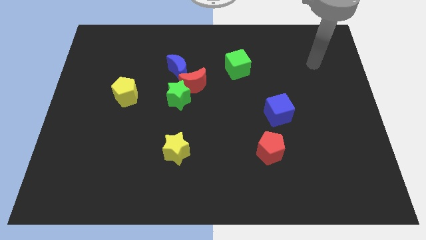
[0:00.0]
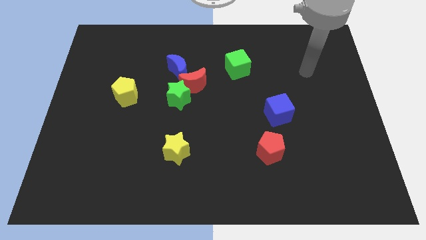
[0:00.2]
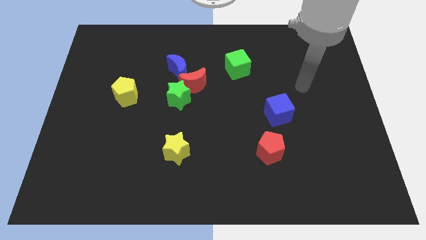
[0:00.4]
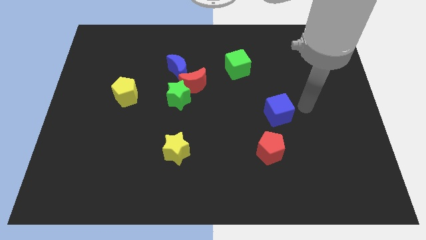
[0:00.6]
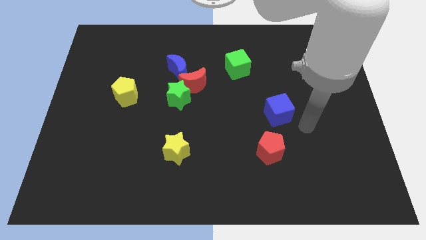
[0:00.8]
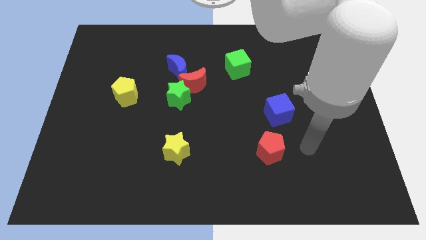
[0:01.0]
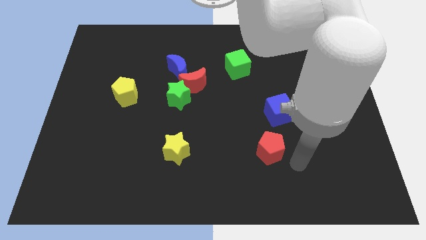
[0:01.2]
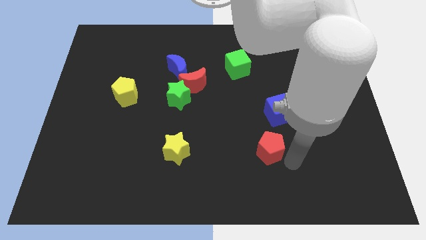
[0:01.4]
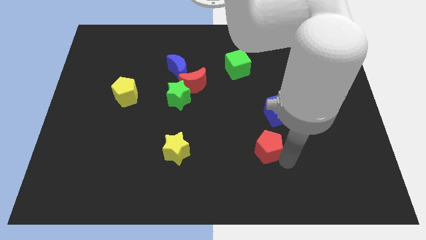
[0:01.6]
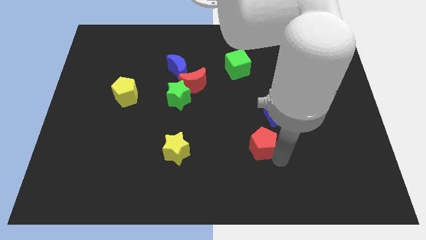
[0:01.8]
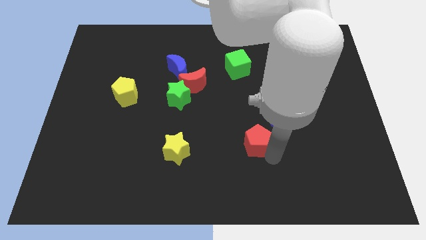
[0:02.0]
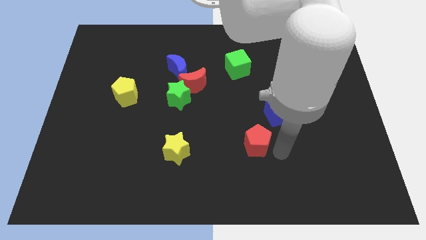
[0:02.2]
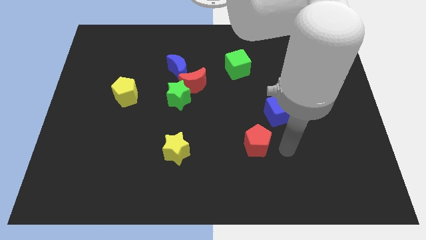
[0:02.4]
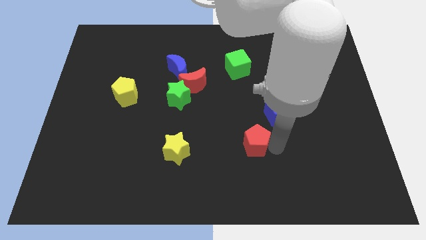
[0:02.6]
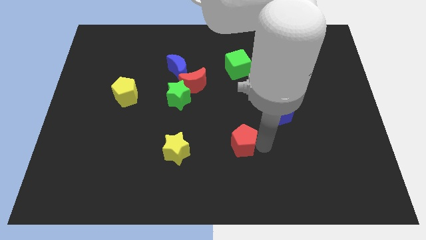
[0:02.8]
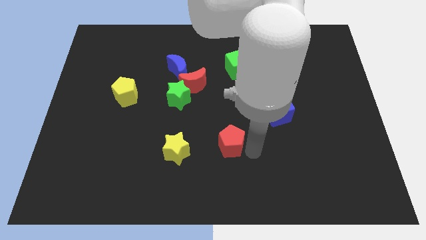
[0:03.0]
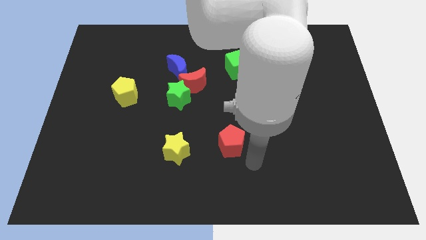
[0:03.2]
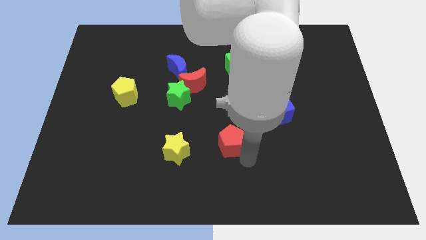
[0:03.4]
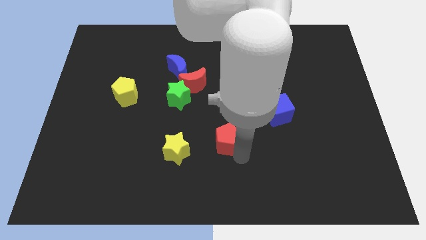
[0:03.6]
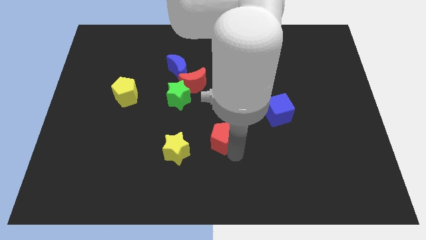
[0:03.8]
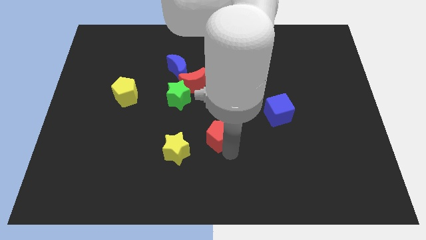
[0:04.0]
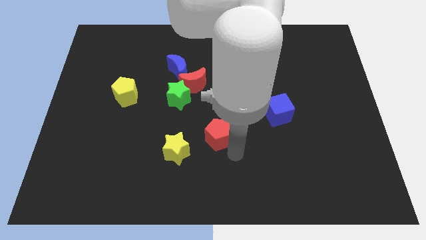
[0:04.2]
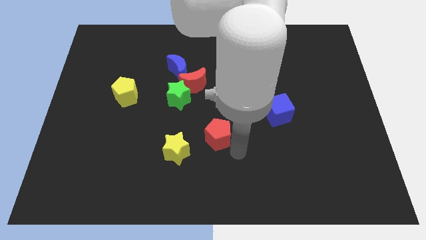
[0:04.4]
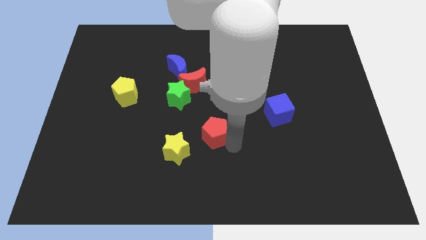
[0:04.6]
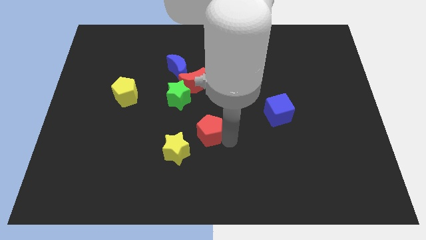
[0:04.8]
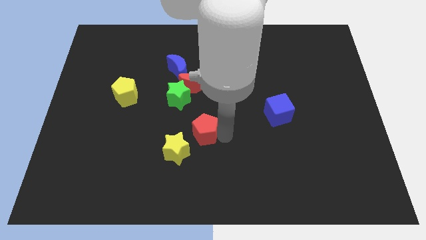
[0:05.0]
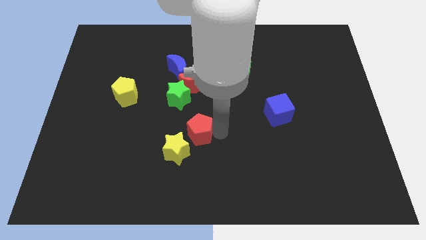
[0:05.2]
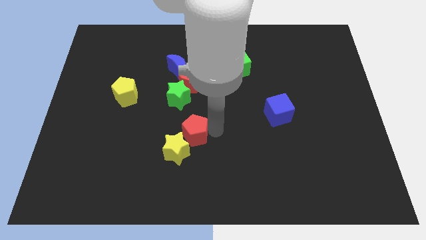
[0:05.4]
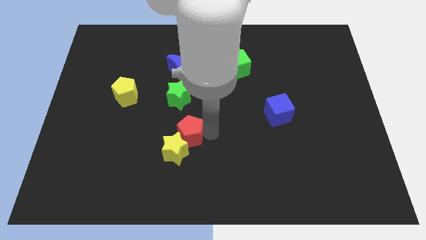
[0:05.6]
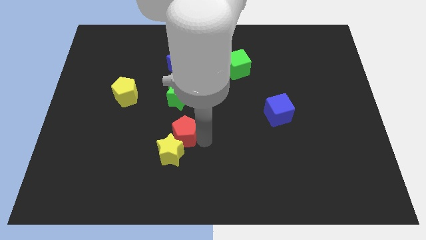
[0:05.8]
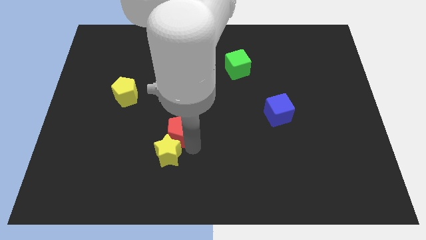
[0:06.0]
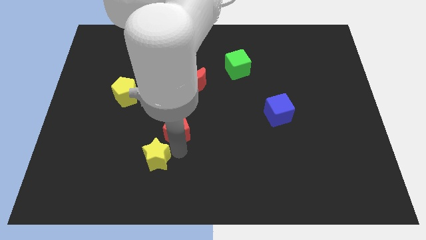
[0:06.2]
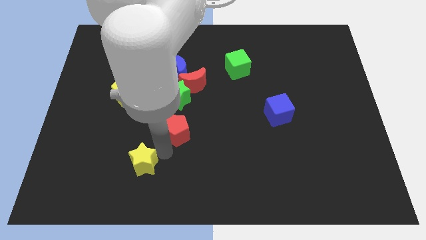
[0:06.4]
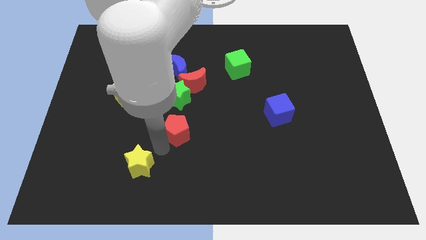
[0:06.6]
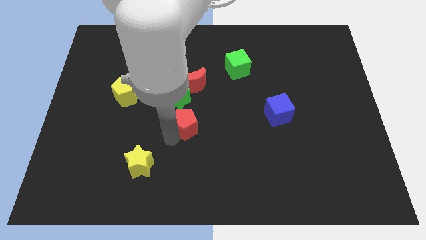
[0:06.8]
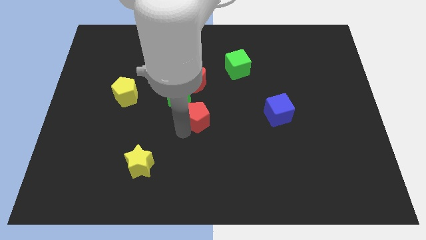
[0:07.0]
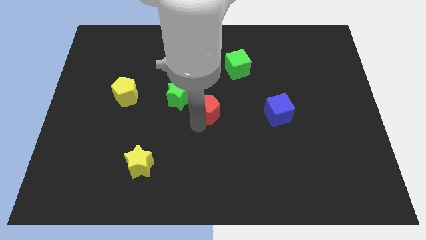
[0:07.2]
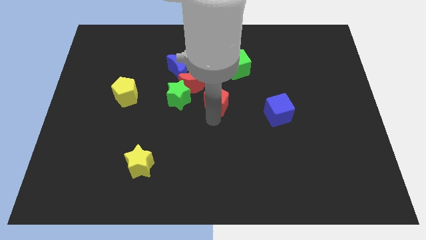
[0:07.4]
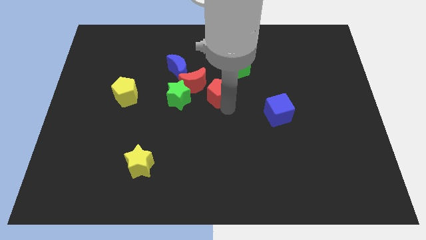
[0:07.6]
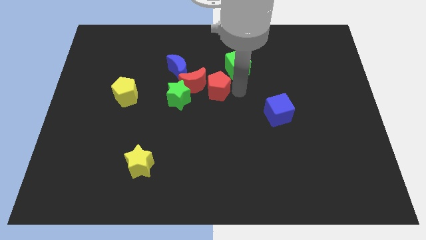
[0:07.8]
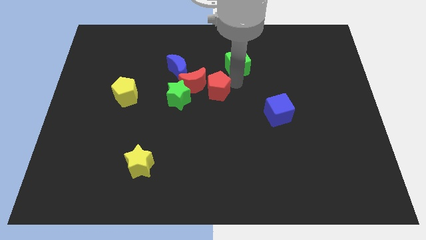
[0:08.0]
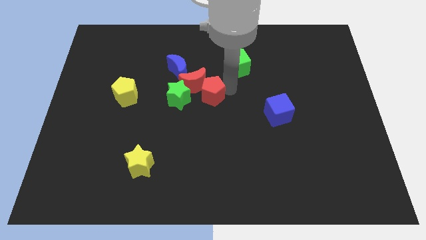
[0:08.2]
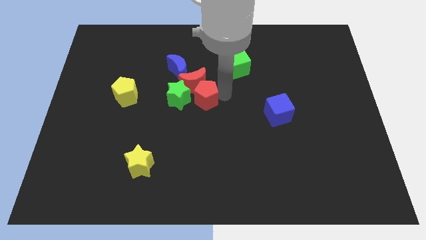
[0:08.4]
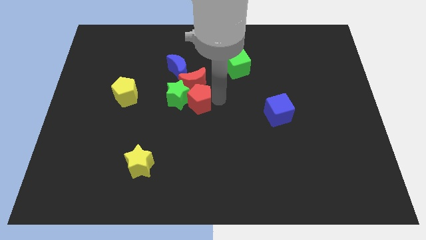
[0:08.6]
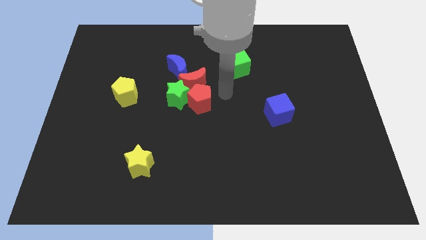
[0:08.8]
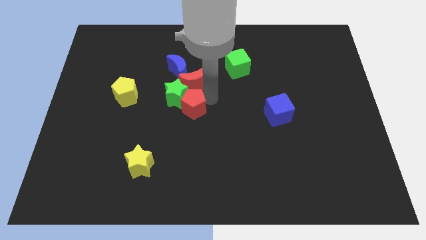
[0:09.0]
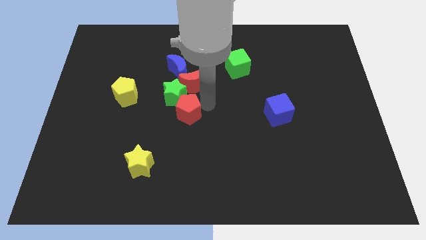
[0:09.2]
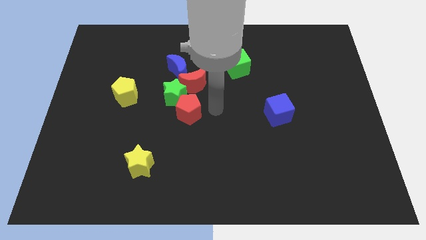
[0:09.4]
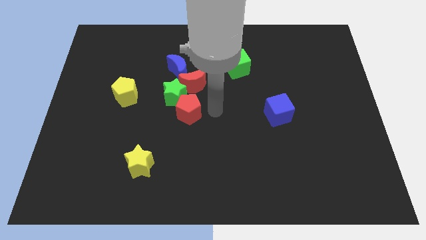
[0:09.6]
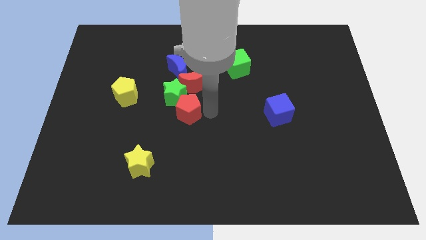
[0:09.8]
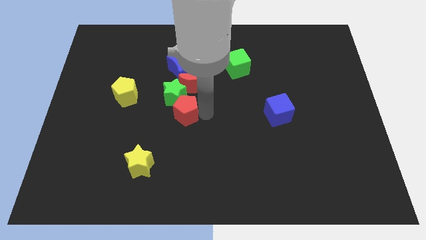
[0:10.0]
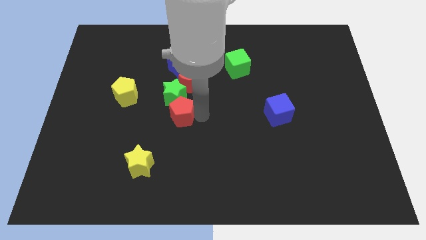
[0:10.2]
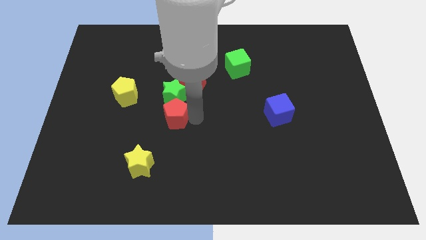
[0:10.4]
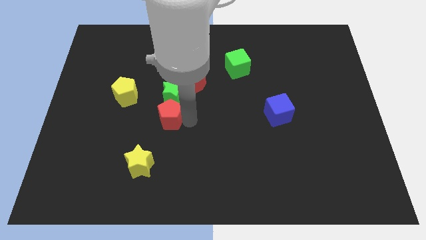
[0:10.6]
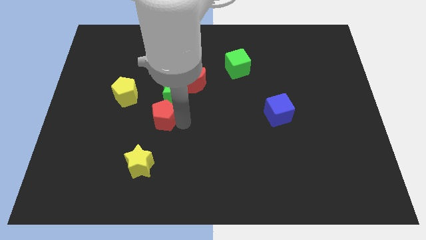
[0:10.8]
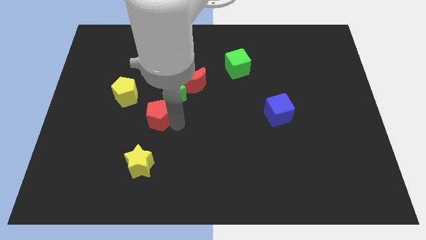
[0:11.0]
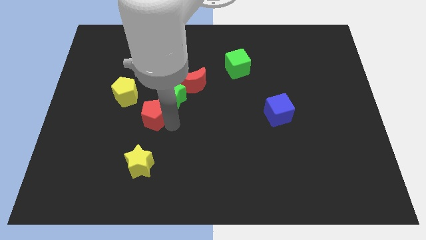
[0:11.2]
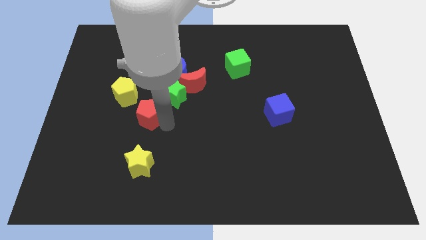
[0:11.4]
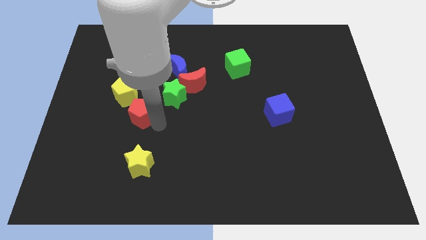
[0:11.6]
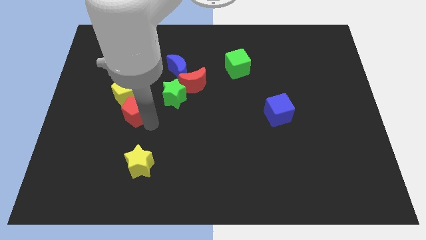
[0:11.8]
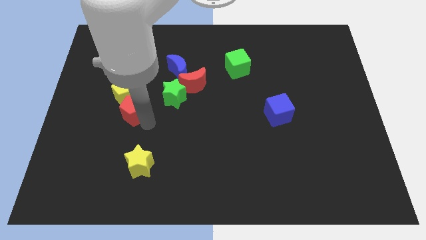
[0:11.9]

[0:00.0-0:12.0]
move the red pentagon close to the yellow pentagon

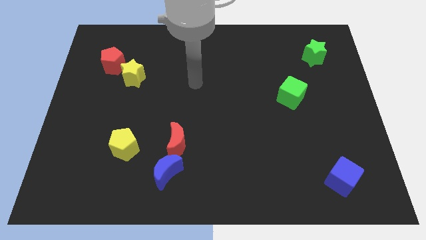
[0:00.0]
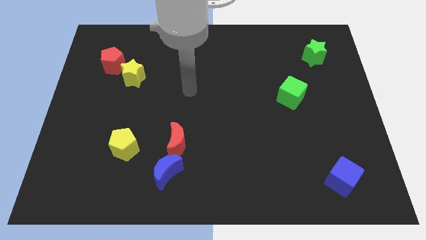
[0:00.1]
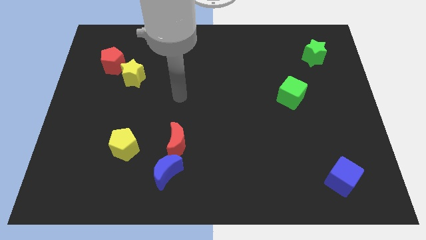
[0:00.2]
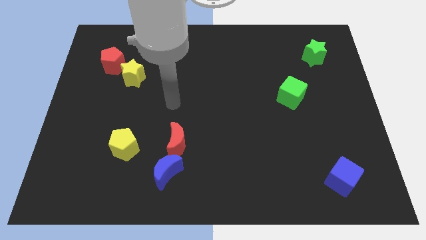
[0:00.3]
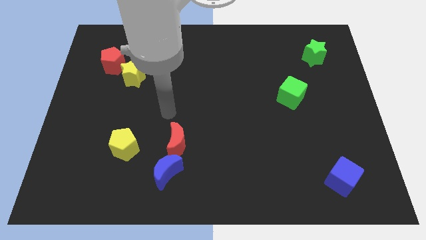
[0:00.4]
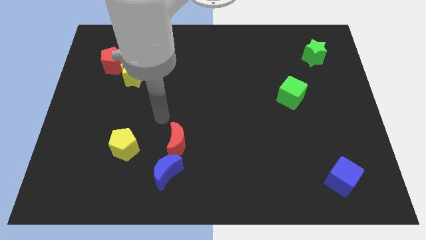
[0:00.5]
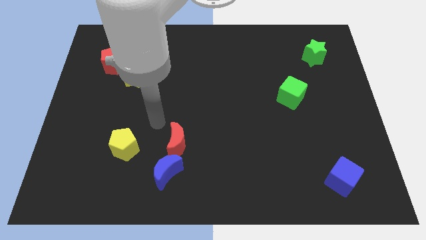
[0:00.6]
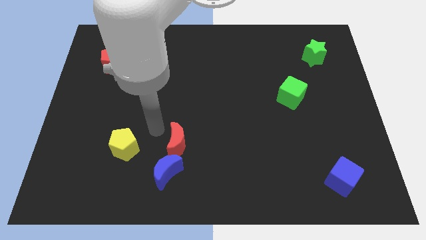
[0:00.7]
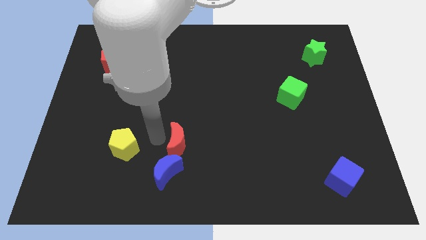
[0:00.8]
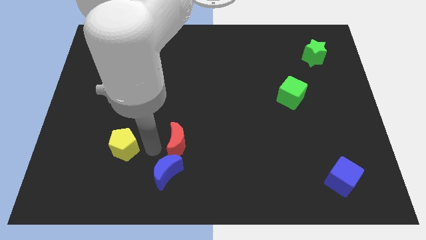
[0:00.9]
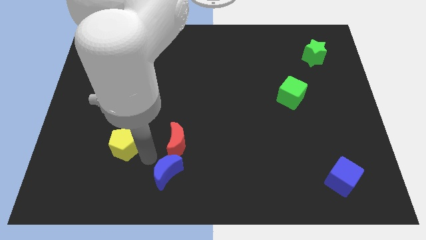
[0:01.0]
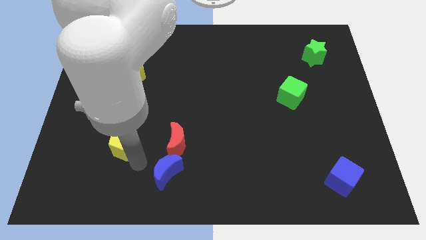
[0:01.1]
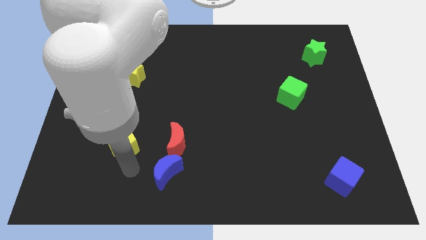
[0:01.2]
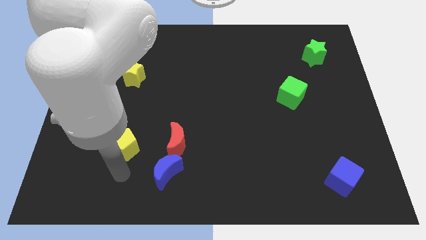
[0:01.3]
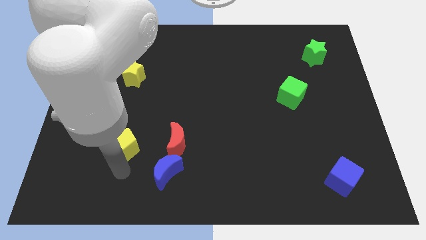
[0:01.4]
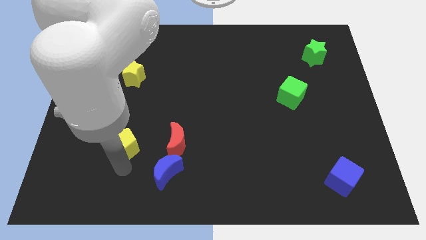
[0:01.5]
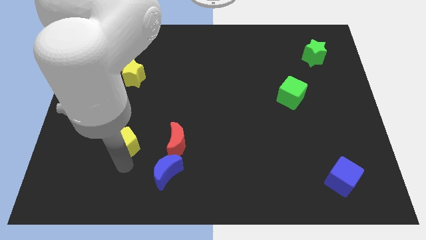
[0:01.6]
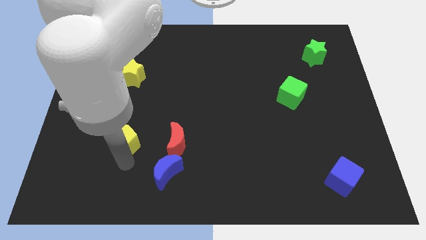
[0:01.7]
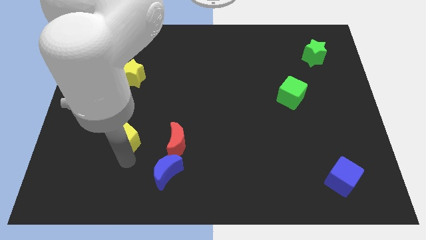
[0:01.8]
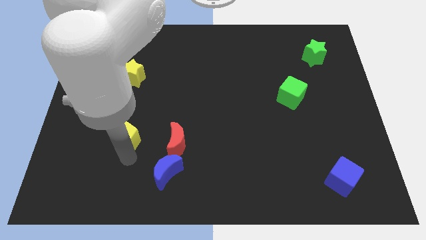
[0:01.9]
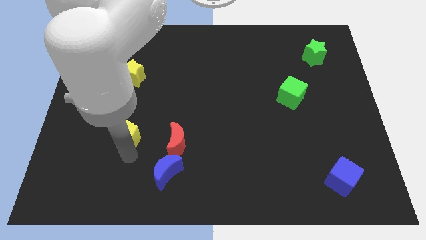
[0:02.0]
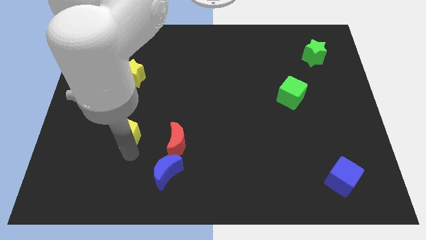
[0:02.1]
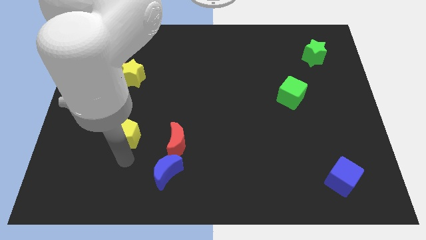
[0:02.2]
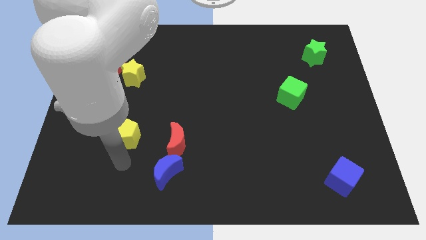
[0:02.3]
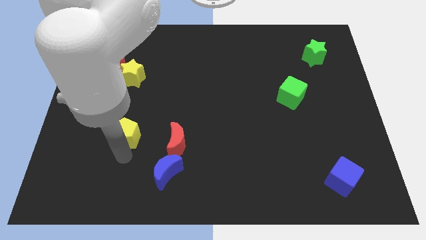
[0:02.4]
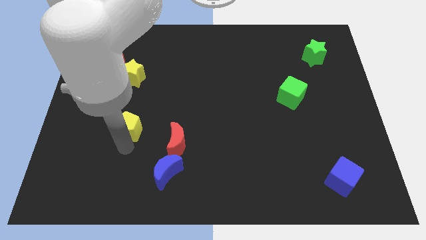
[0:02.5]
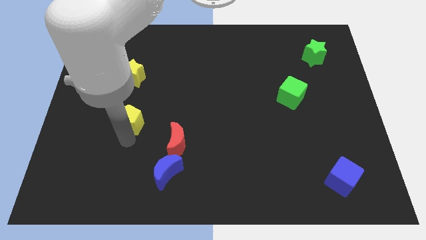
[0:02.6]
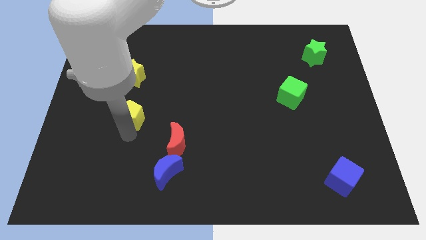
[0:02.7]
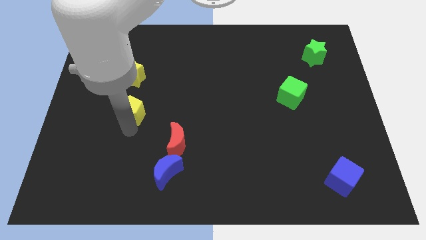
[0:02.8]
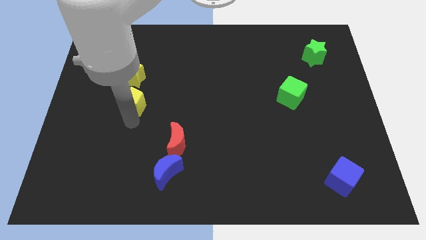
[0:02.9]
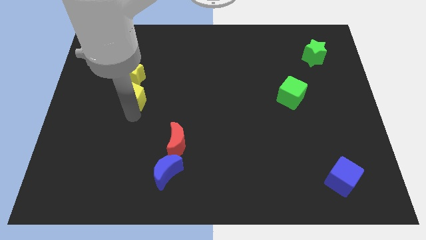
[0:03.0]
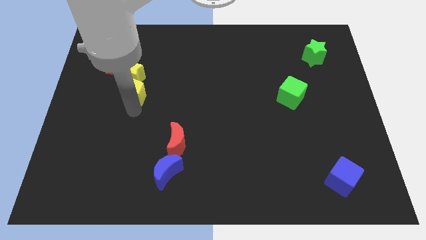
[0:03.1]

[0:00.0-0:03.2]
move the yellow pentagon to the yellow star
